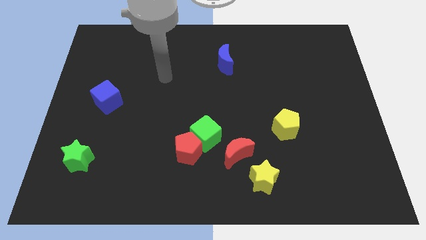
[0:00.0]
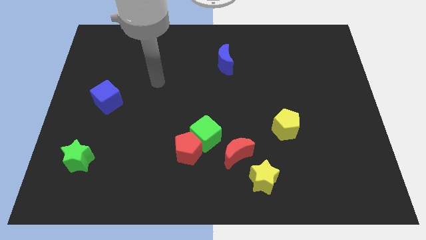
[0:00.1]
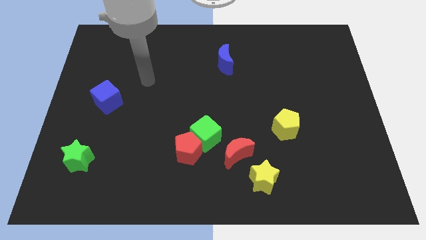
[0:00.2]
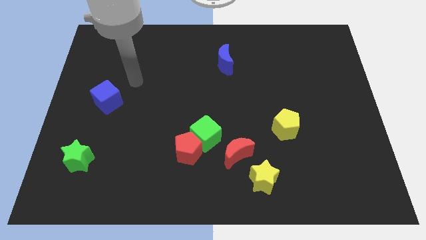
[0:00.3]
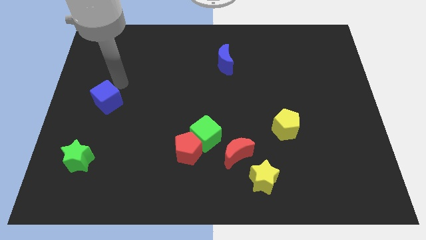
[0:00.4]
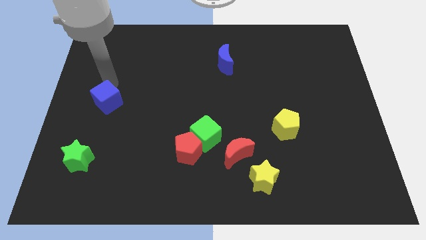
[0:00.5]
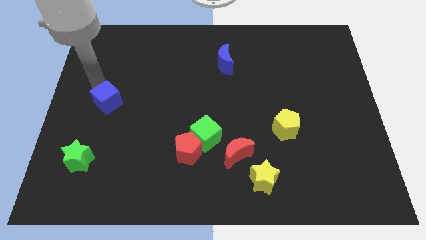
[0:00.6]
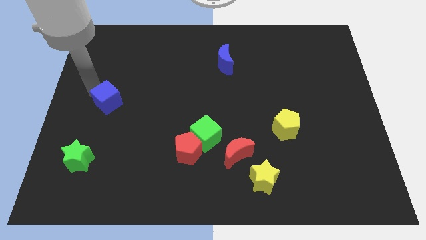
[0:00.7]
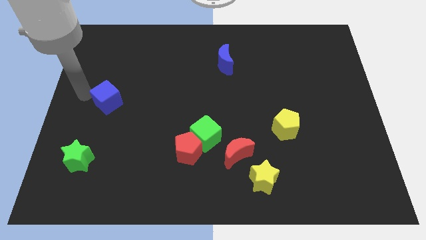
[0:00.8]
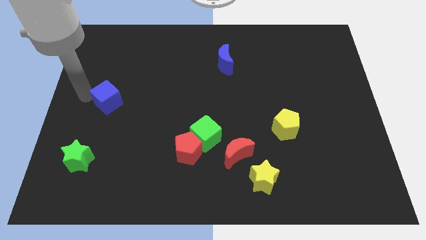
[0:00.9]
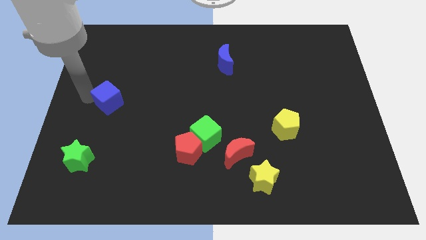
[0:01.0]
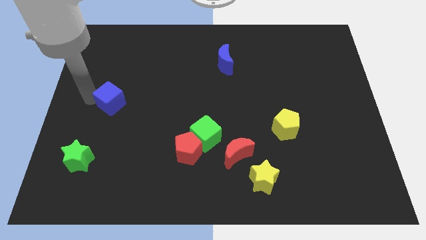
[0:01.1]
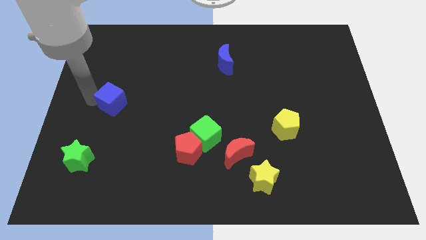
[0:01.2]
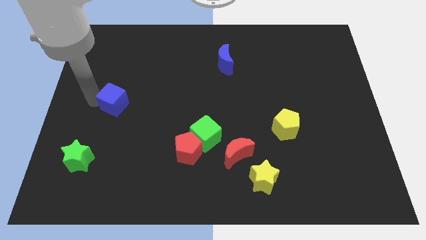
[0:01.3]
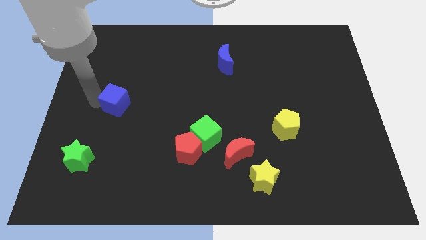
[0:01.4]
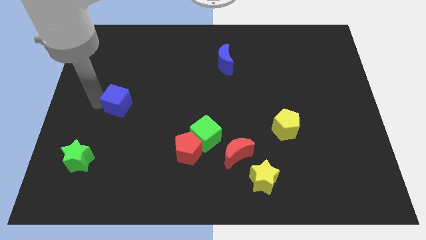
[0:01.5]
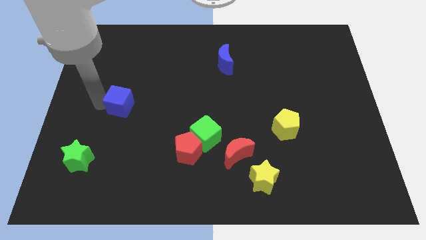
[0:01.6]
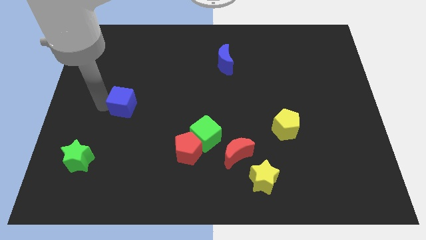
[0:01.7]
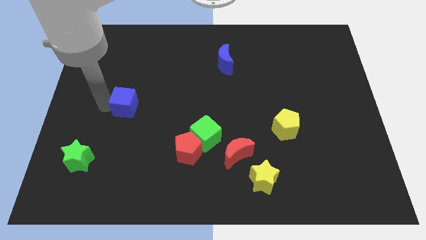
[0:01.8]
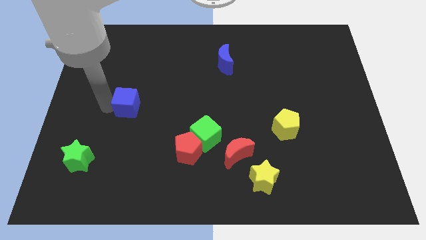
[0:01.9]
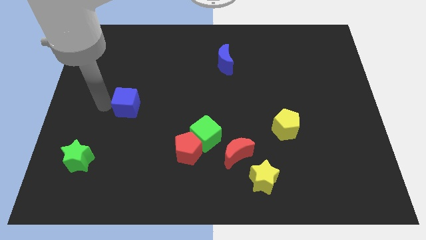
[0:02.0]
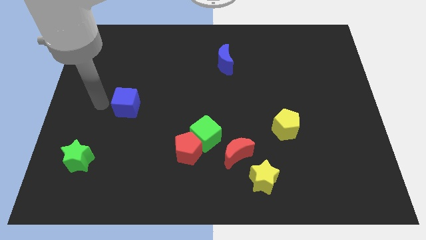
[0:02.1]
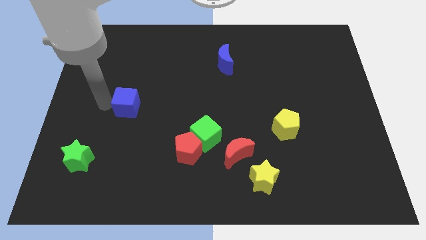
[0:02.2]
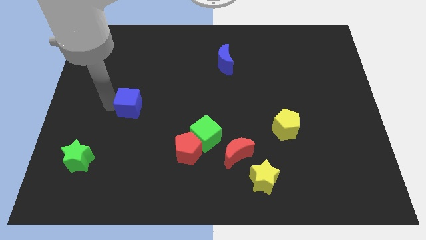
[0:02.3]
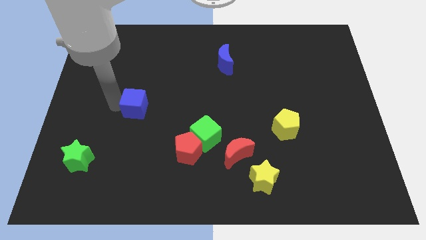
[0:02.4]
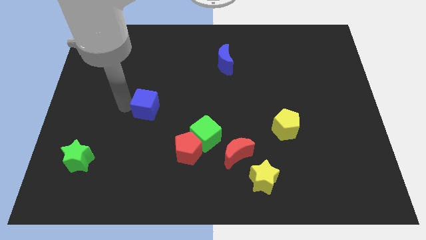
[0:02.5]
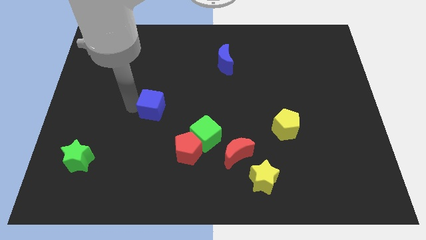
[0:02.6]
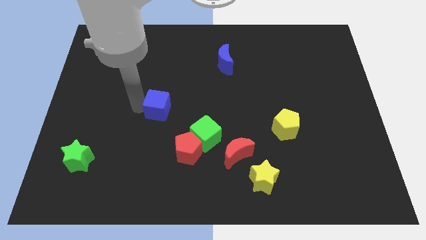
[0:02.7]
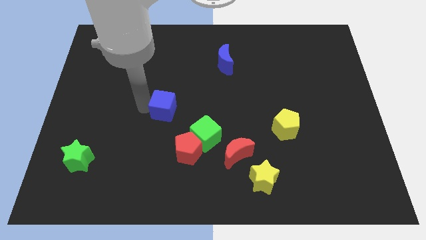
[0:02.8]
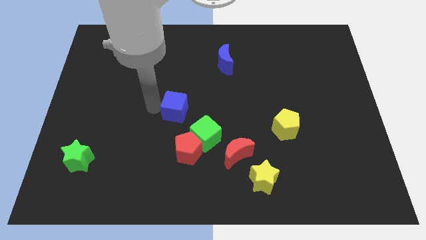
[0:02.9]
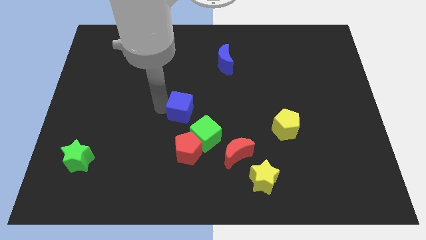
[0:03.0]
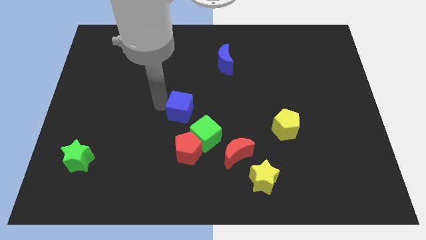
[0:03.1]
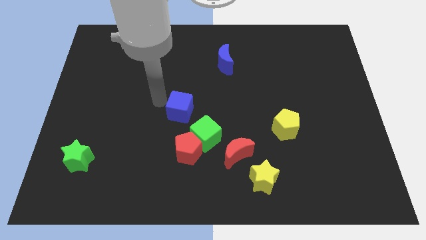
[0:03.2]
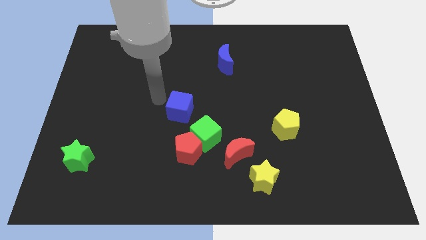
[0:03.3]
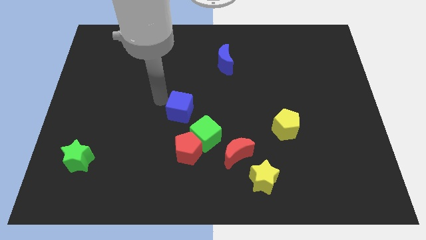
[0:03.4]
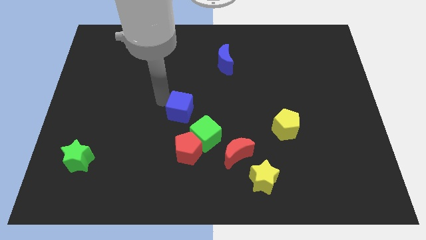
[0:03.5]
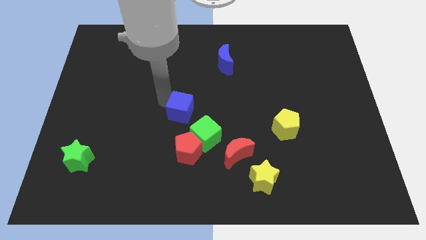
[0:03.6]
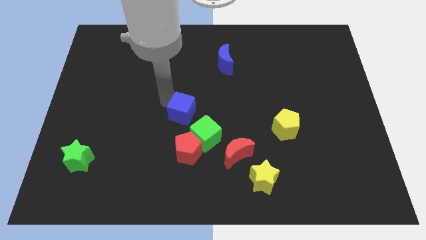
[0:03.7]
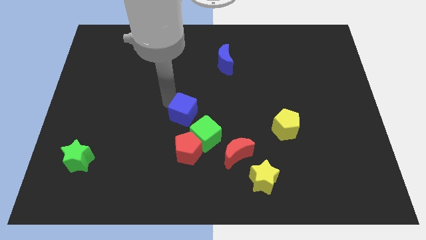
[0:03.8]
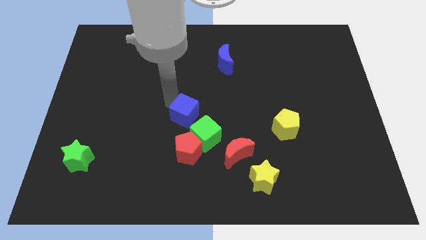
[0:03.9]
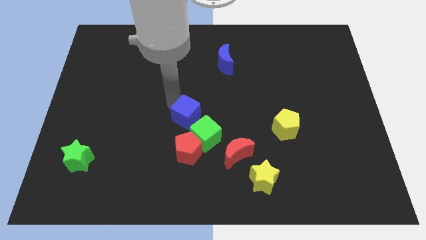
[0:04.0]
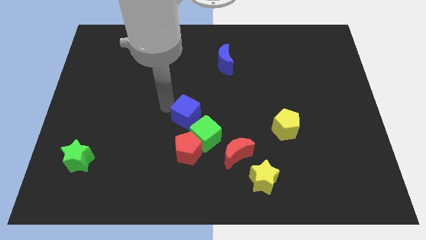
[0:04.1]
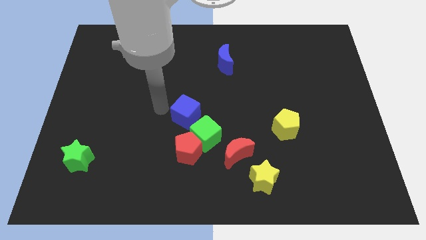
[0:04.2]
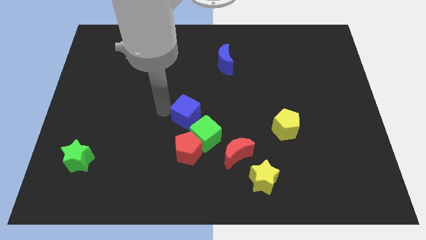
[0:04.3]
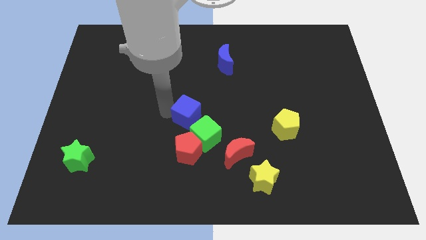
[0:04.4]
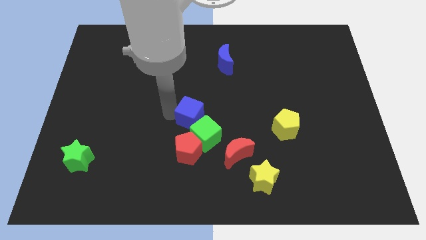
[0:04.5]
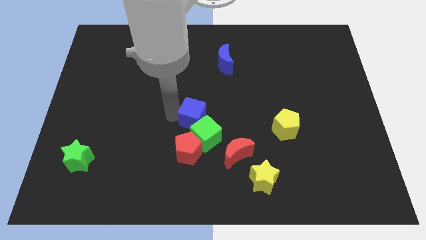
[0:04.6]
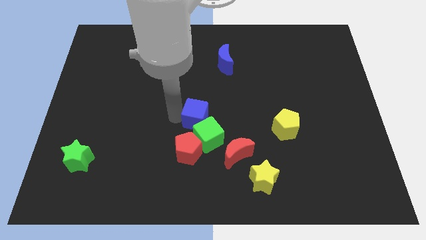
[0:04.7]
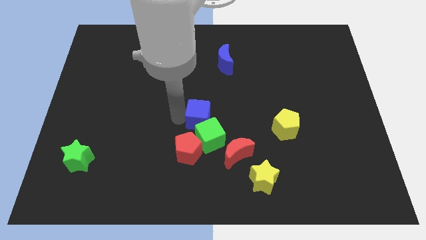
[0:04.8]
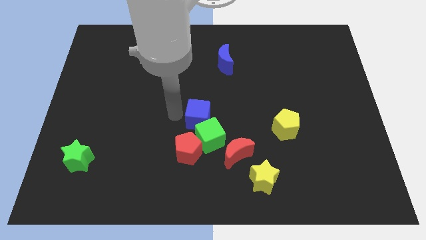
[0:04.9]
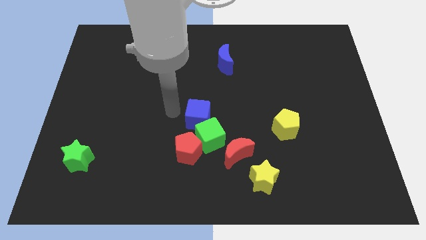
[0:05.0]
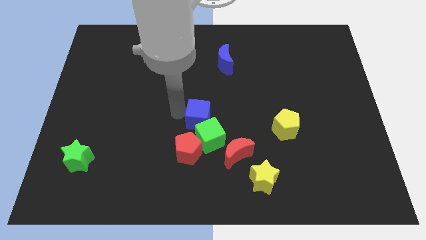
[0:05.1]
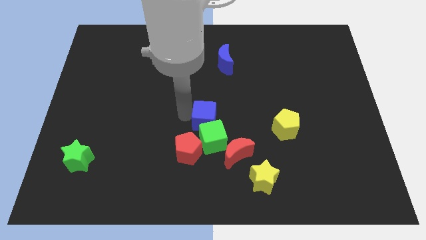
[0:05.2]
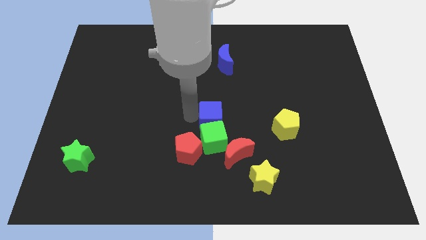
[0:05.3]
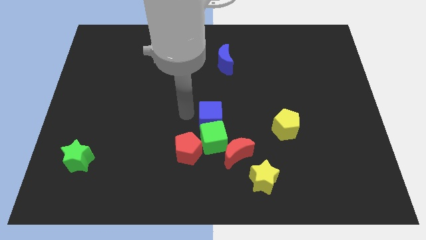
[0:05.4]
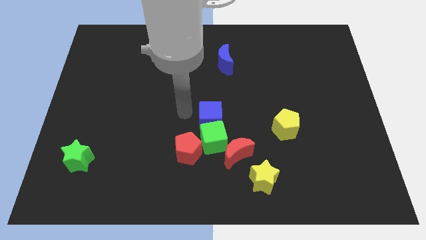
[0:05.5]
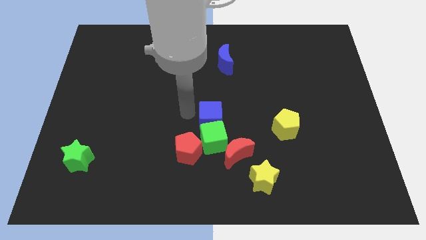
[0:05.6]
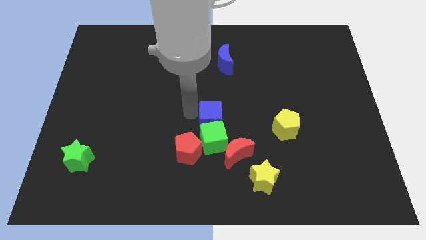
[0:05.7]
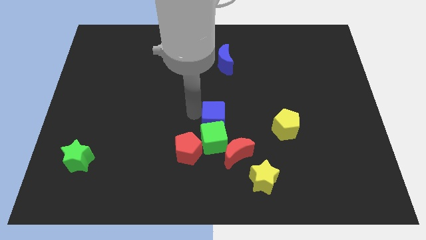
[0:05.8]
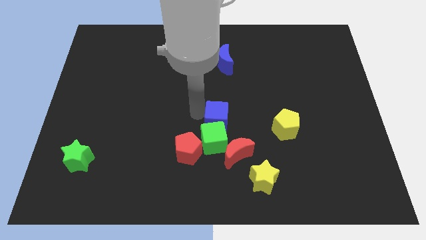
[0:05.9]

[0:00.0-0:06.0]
put the blue cube to the left side of the yellow pentagon

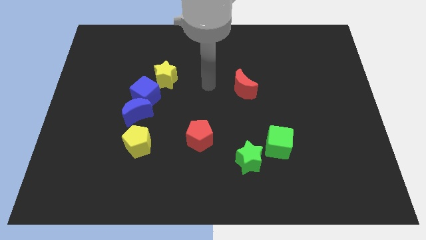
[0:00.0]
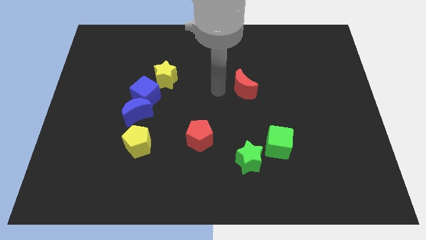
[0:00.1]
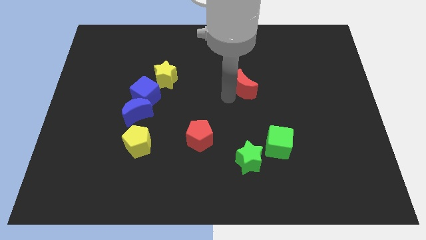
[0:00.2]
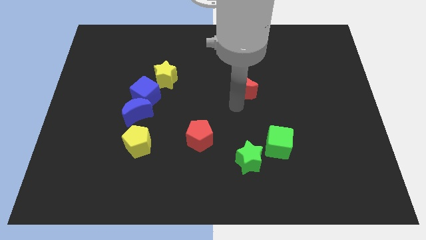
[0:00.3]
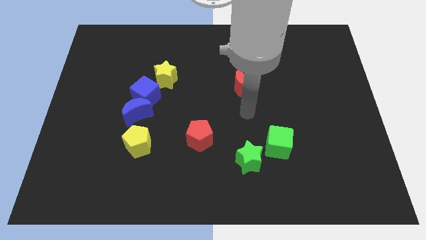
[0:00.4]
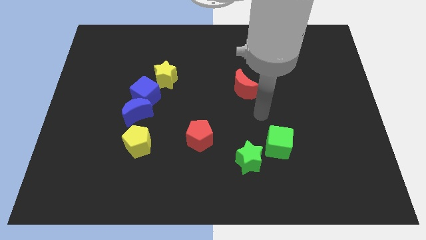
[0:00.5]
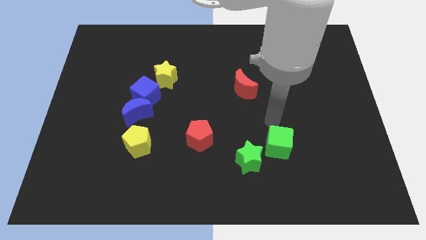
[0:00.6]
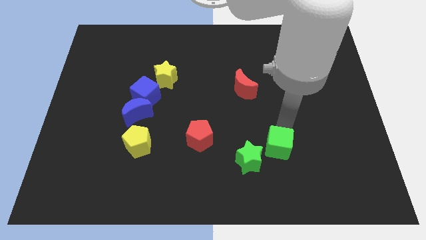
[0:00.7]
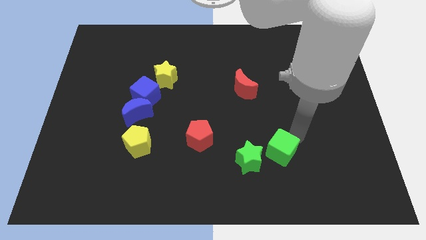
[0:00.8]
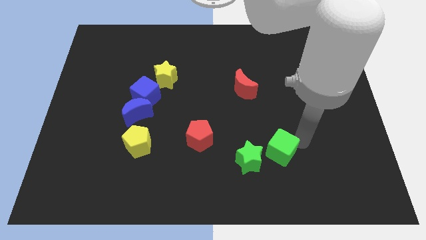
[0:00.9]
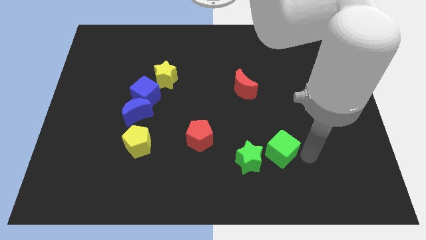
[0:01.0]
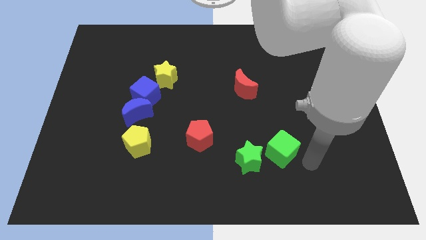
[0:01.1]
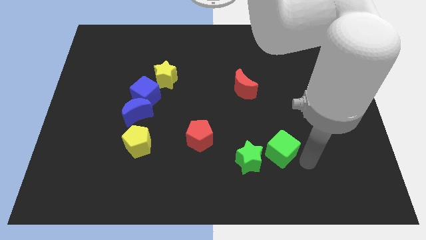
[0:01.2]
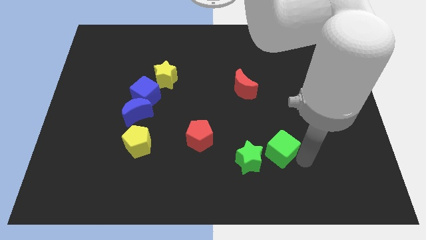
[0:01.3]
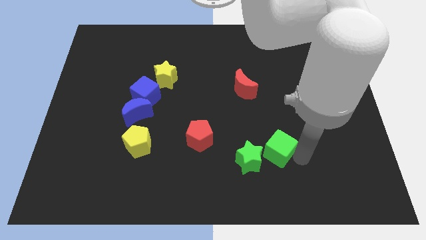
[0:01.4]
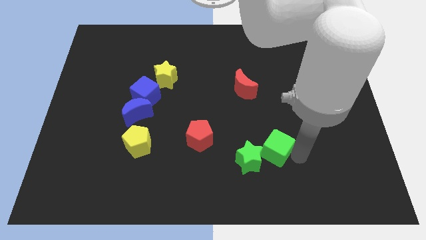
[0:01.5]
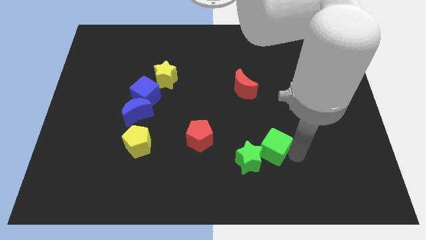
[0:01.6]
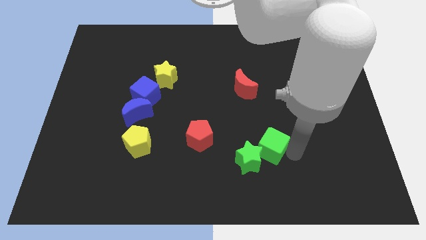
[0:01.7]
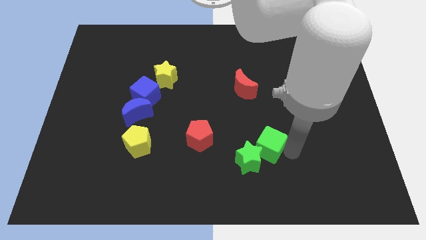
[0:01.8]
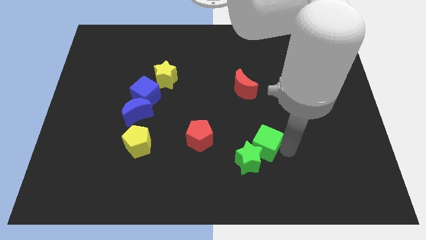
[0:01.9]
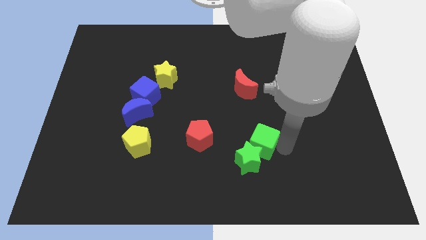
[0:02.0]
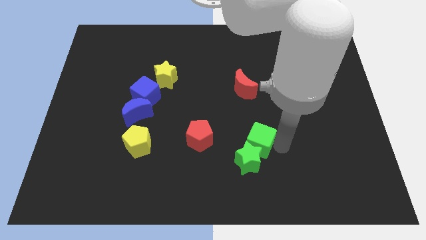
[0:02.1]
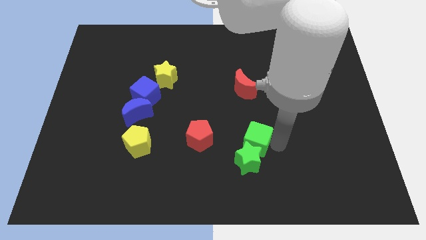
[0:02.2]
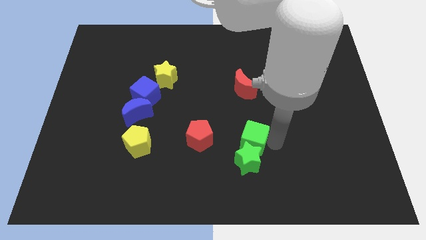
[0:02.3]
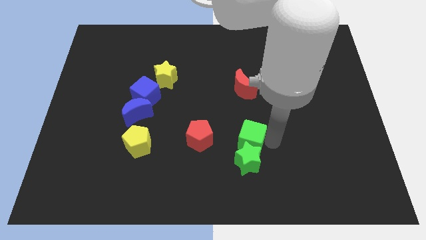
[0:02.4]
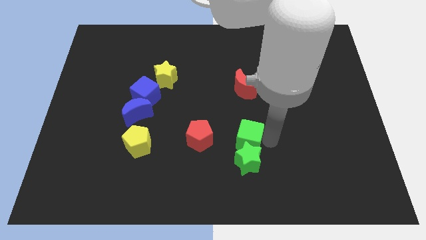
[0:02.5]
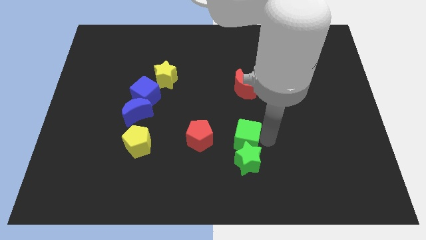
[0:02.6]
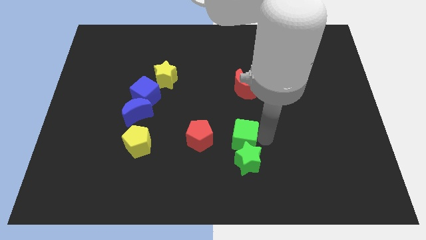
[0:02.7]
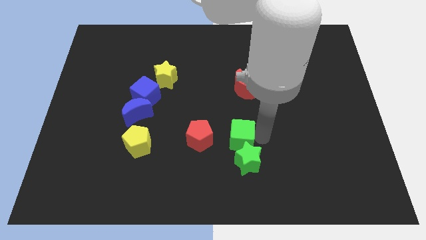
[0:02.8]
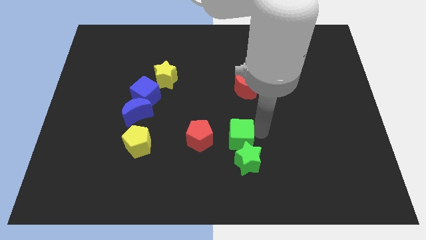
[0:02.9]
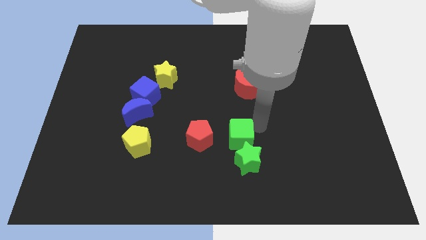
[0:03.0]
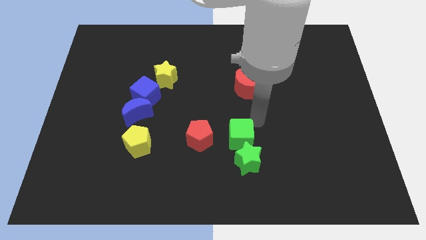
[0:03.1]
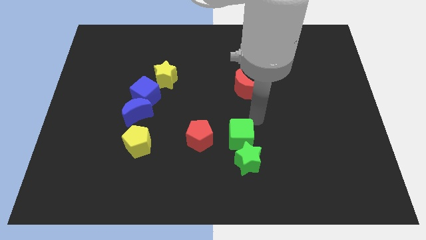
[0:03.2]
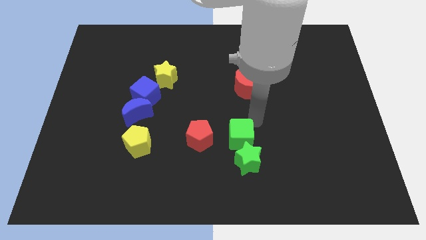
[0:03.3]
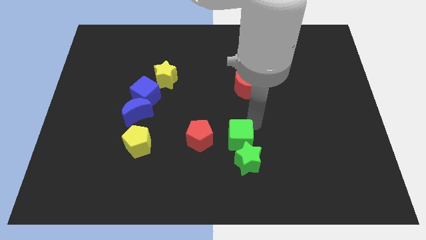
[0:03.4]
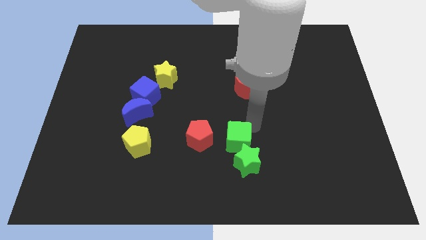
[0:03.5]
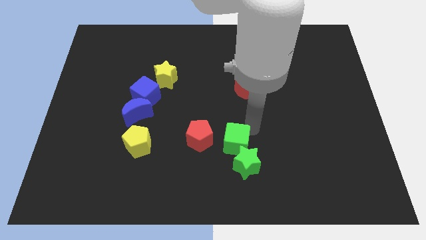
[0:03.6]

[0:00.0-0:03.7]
slide the green cube to the bottom right side of the red pentagon
